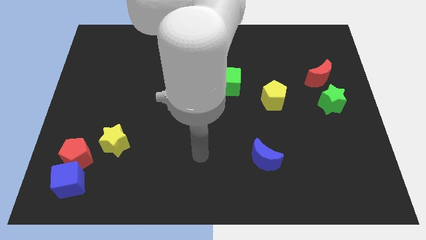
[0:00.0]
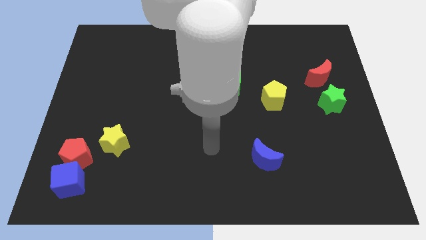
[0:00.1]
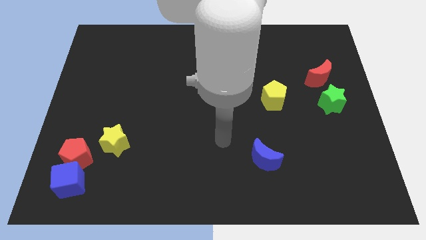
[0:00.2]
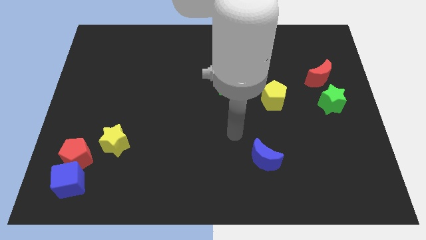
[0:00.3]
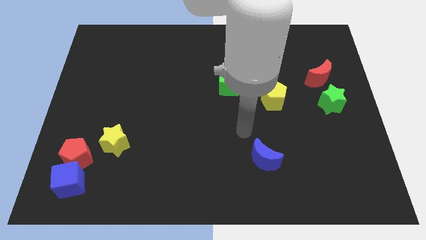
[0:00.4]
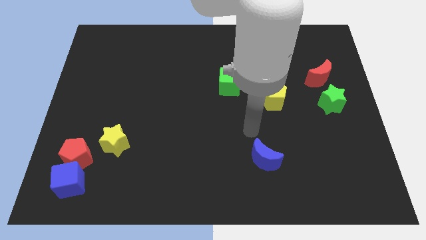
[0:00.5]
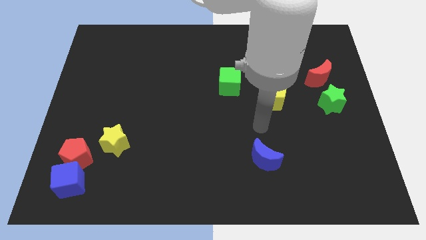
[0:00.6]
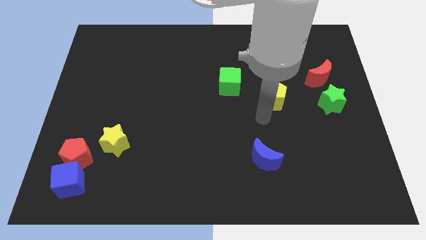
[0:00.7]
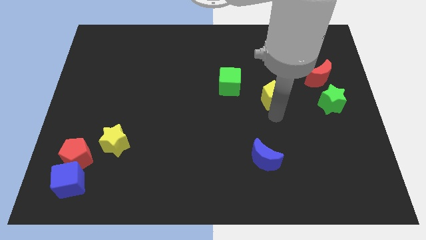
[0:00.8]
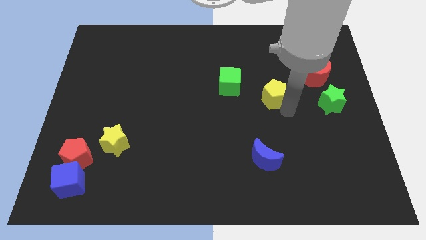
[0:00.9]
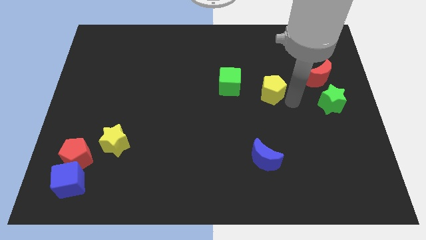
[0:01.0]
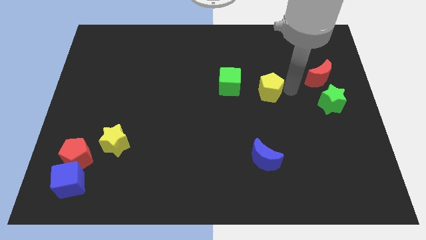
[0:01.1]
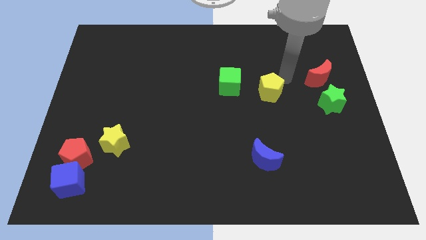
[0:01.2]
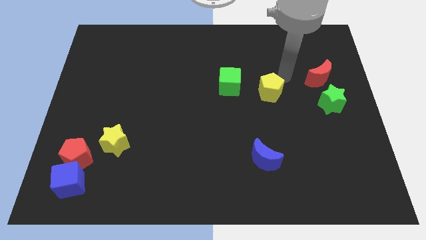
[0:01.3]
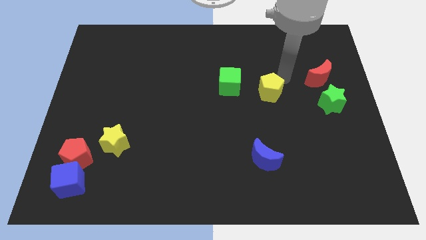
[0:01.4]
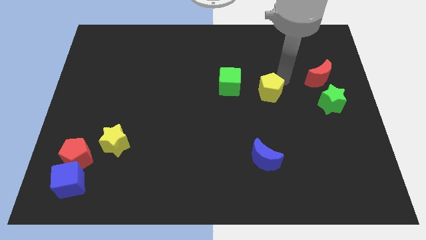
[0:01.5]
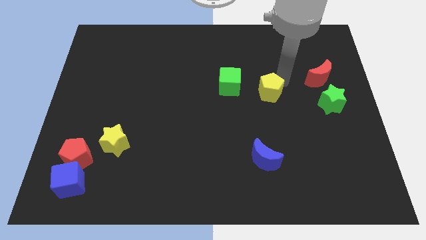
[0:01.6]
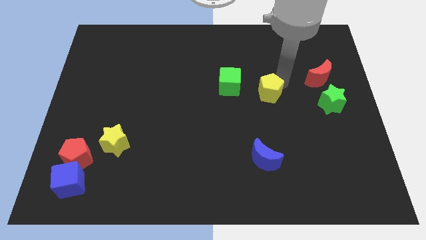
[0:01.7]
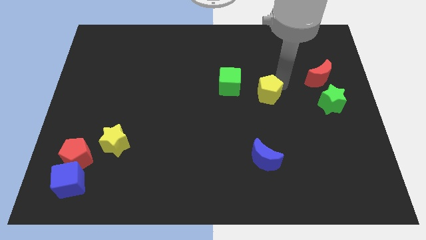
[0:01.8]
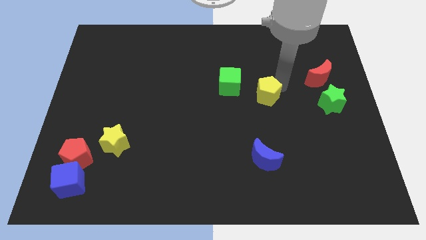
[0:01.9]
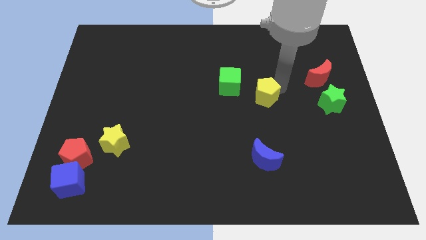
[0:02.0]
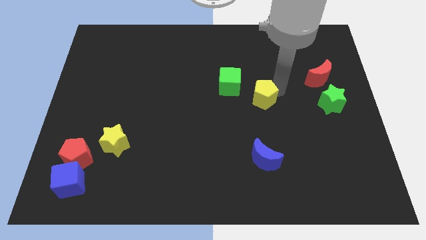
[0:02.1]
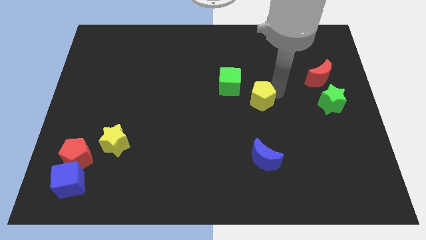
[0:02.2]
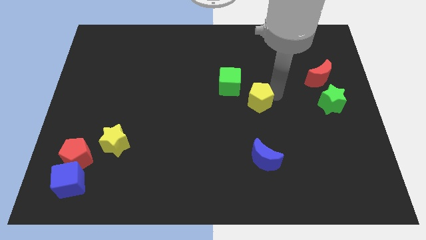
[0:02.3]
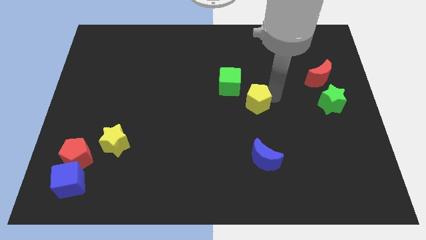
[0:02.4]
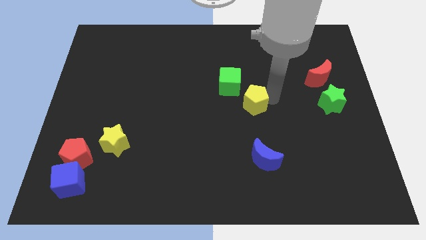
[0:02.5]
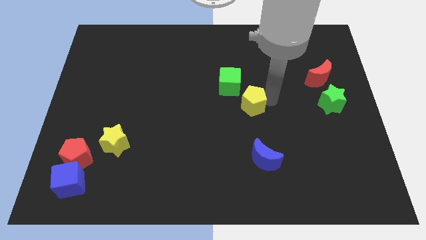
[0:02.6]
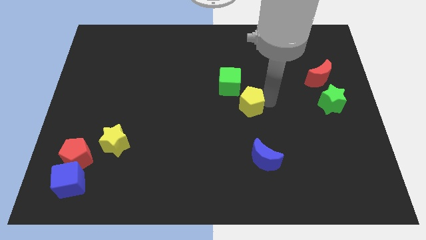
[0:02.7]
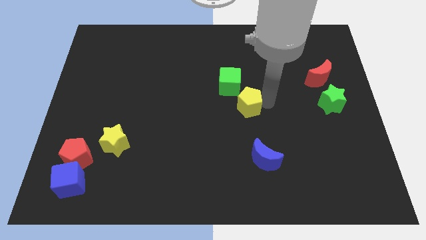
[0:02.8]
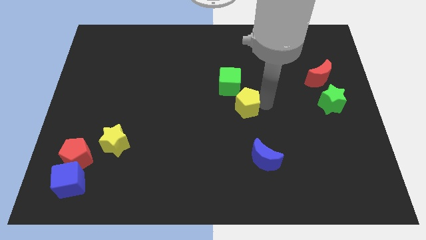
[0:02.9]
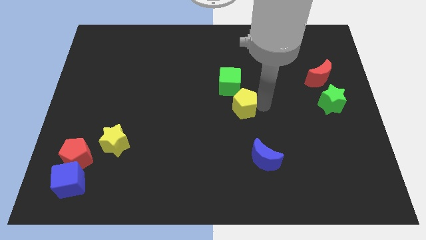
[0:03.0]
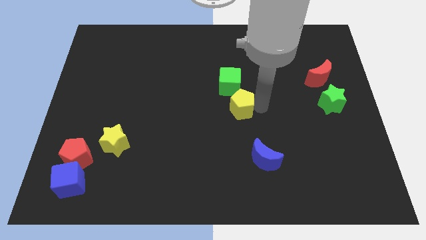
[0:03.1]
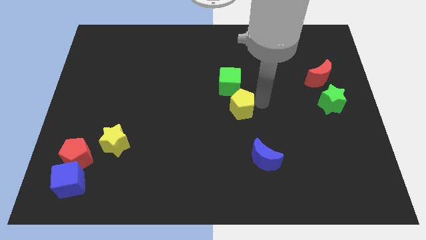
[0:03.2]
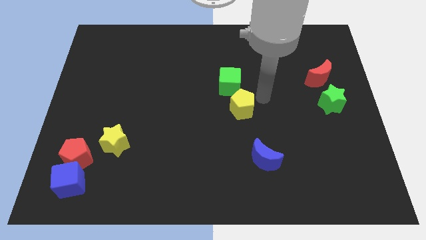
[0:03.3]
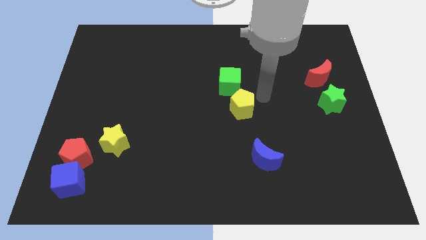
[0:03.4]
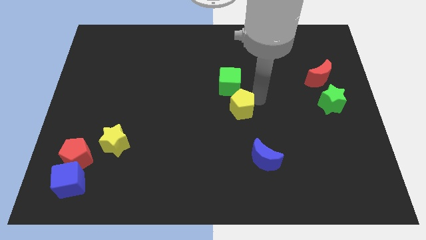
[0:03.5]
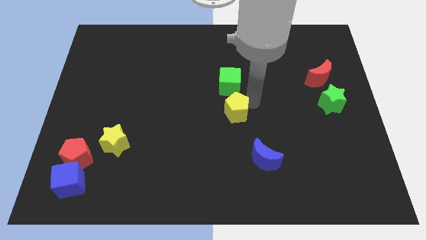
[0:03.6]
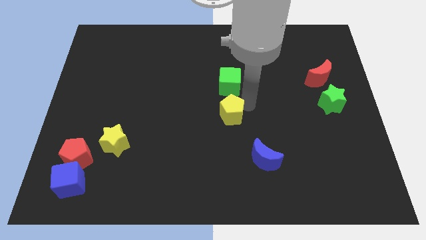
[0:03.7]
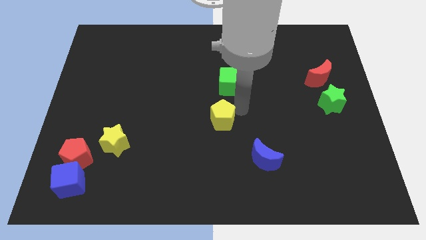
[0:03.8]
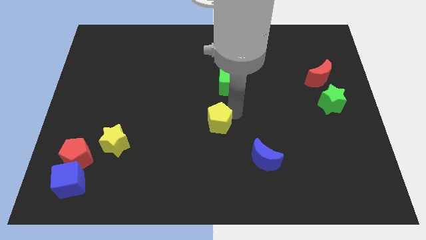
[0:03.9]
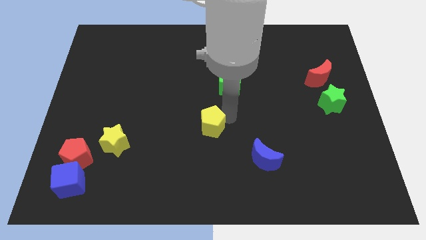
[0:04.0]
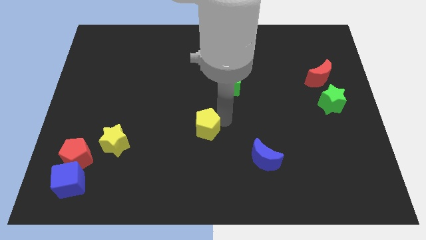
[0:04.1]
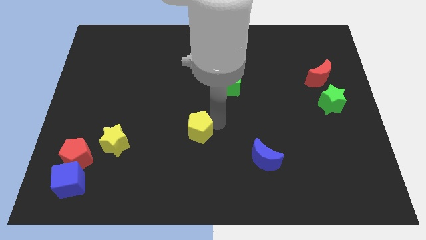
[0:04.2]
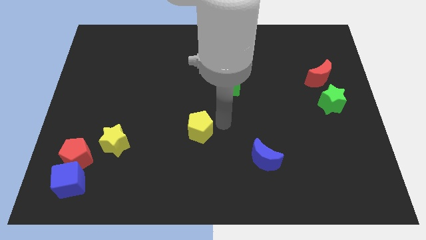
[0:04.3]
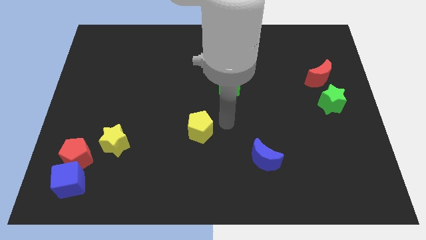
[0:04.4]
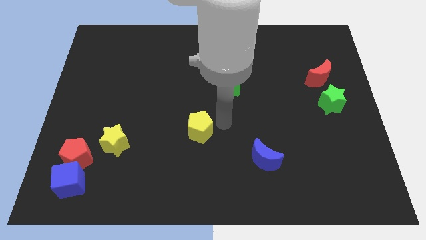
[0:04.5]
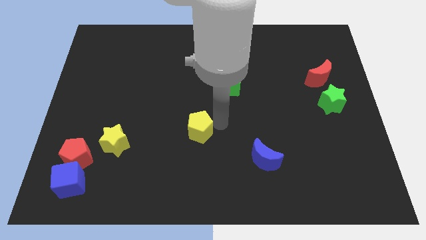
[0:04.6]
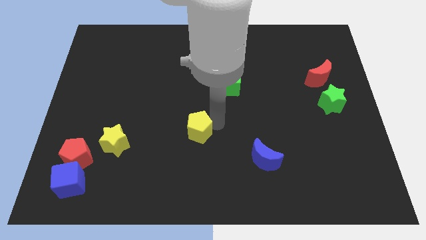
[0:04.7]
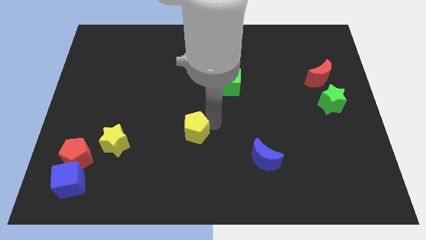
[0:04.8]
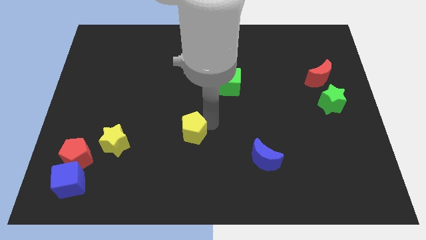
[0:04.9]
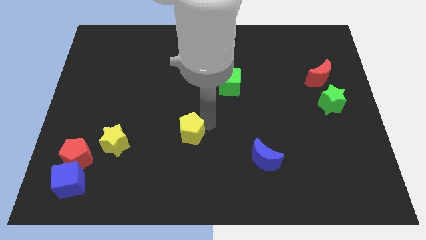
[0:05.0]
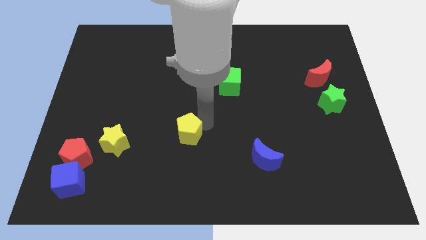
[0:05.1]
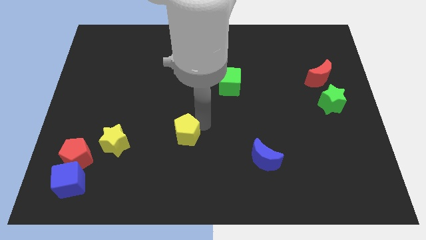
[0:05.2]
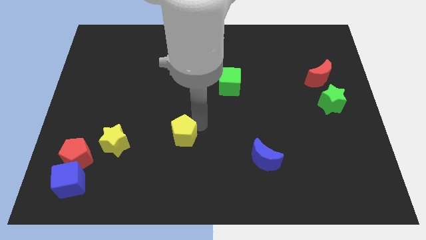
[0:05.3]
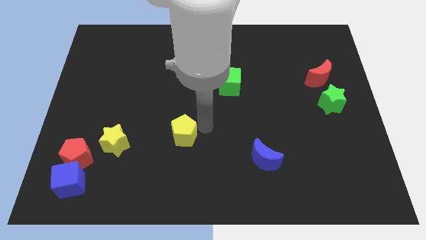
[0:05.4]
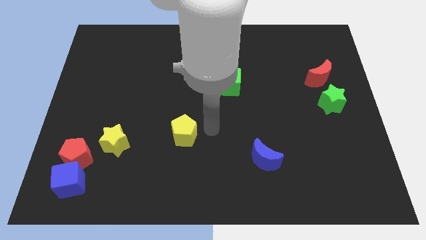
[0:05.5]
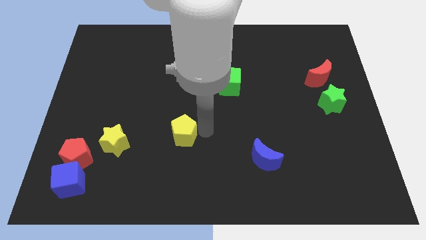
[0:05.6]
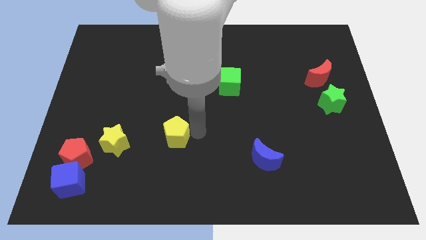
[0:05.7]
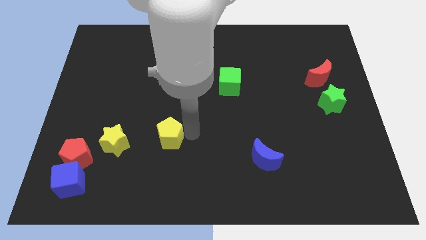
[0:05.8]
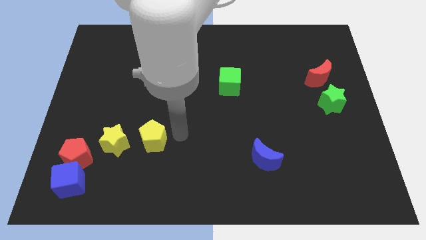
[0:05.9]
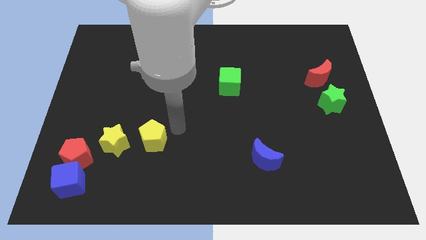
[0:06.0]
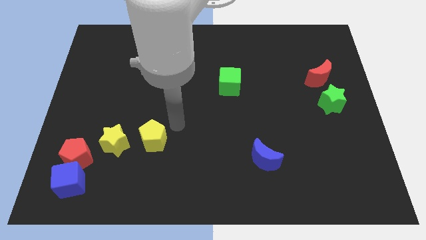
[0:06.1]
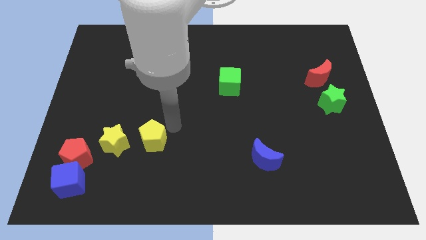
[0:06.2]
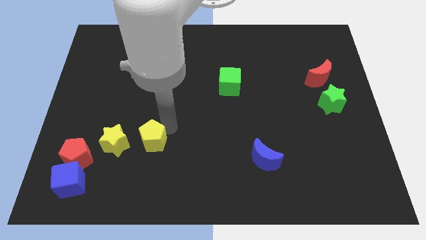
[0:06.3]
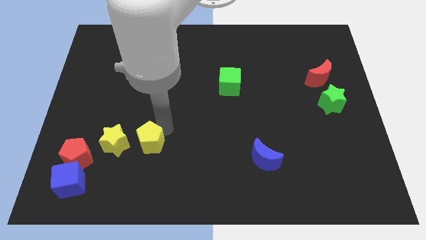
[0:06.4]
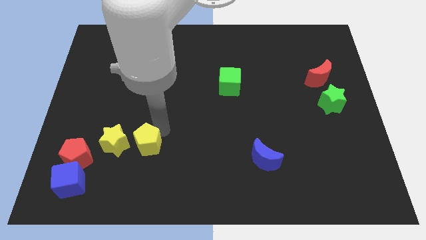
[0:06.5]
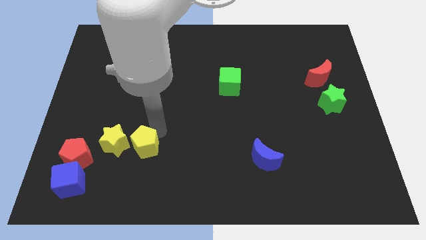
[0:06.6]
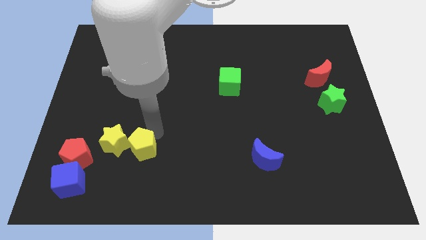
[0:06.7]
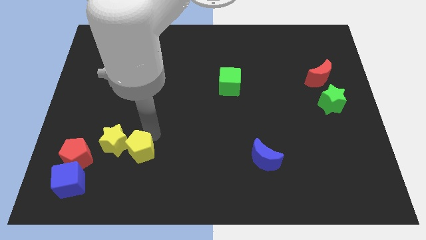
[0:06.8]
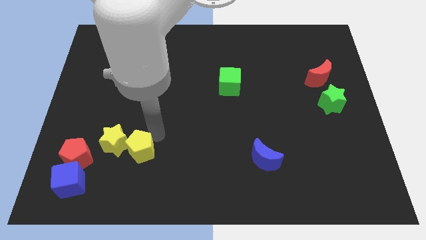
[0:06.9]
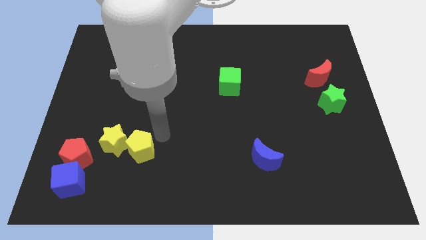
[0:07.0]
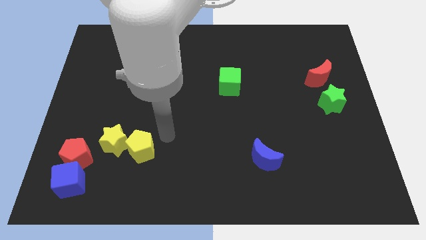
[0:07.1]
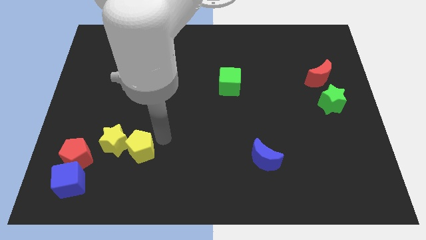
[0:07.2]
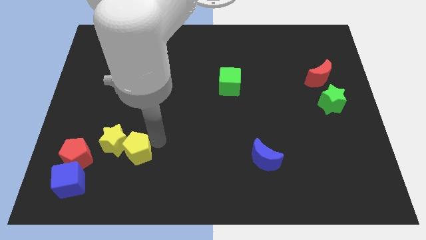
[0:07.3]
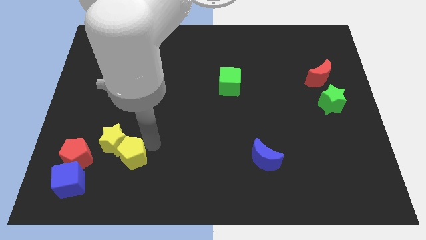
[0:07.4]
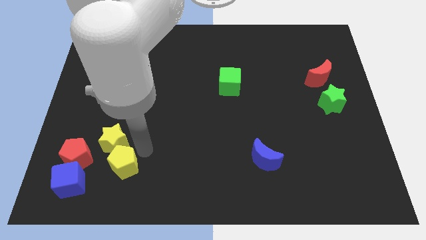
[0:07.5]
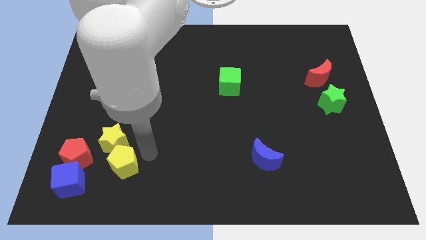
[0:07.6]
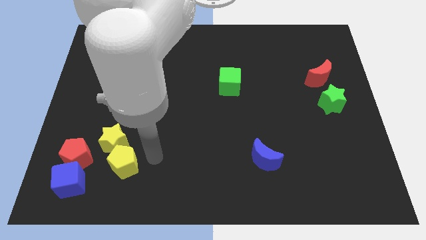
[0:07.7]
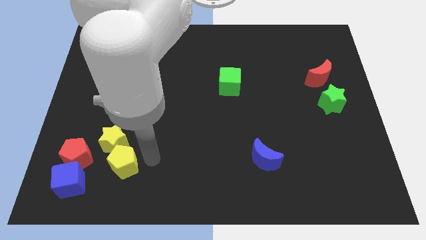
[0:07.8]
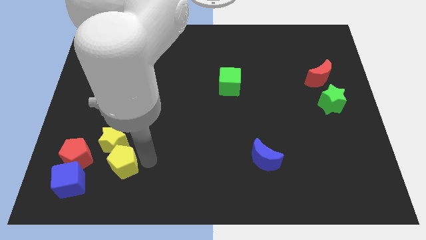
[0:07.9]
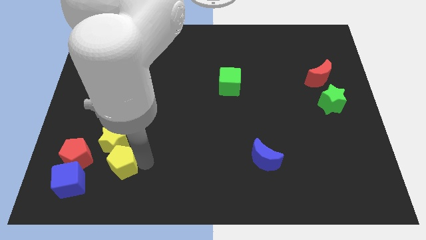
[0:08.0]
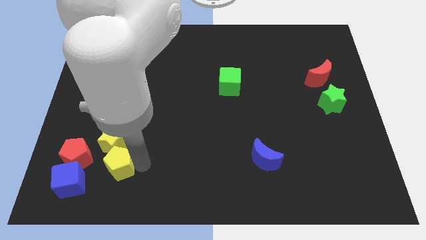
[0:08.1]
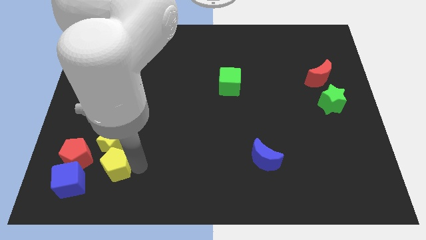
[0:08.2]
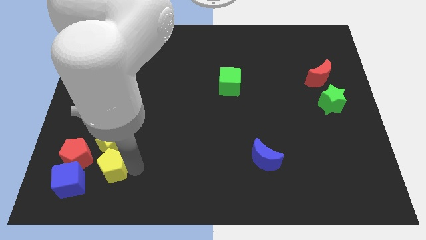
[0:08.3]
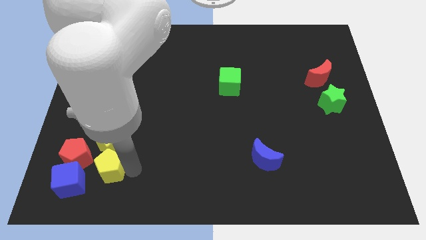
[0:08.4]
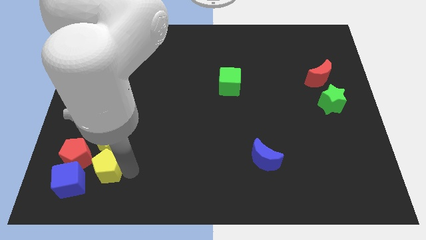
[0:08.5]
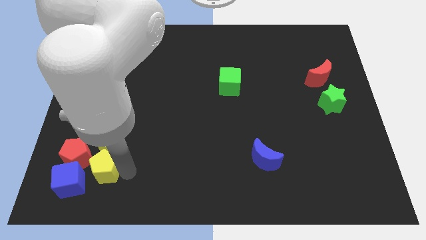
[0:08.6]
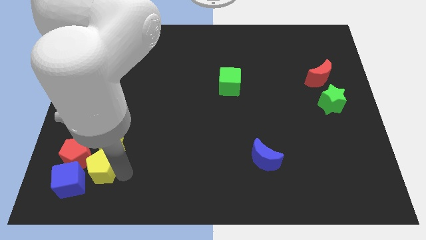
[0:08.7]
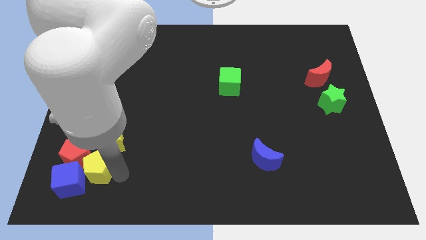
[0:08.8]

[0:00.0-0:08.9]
move the yellow pentagon close to the blue cube
